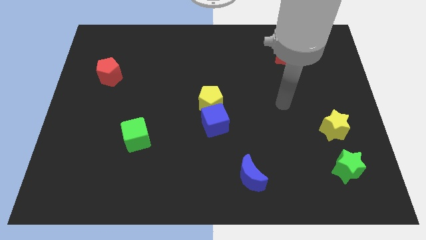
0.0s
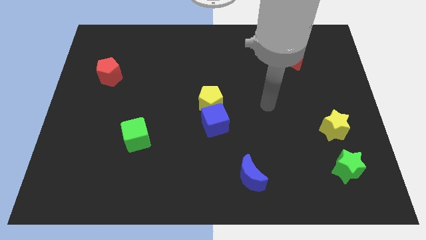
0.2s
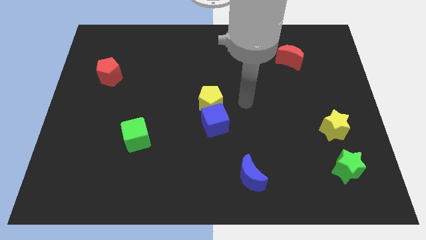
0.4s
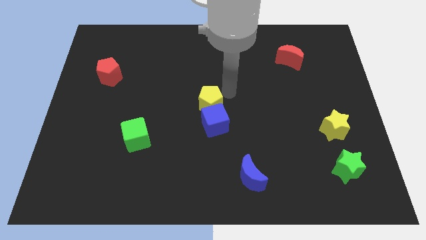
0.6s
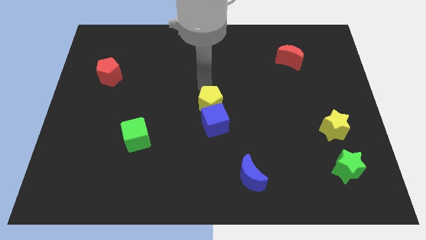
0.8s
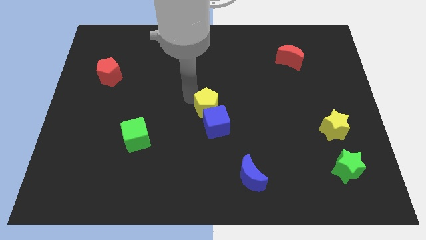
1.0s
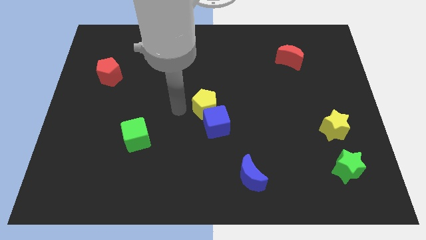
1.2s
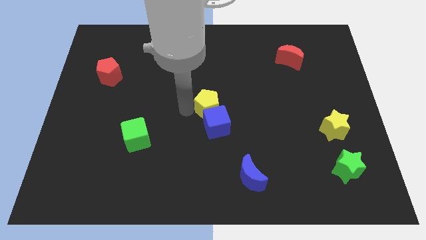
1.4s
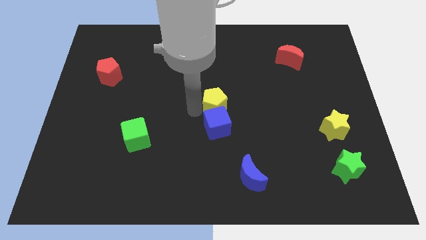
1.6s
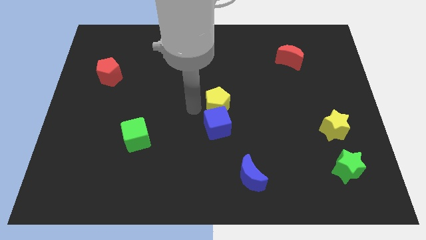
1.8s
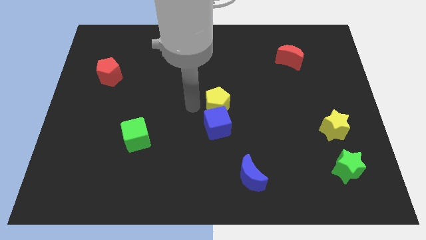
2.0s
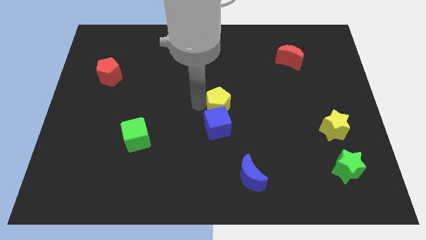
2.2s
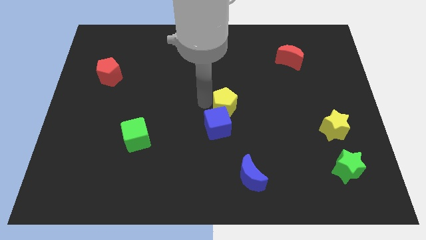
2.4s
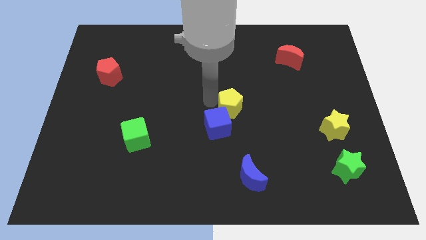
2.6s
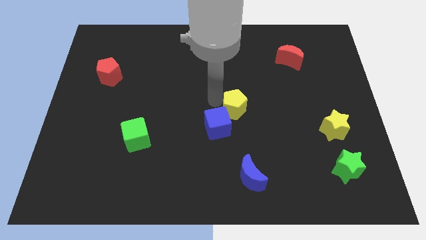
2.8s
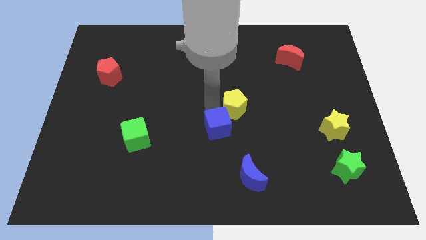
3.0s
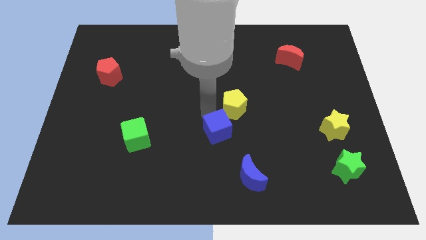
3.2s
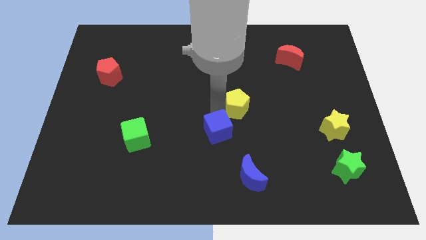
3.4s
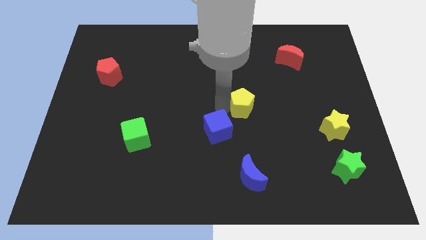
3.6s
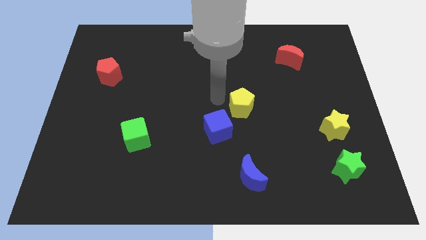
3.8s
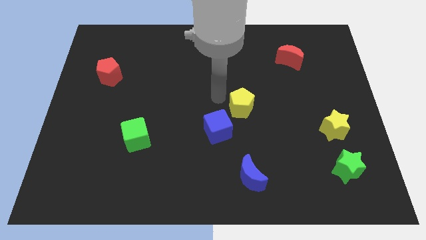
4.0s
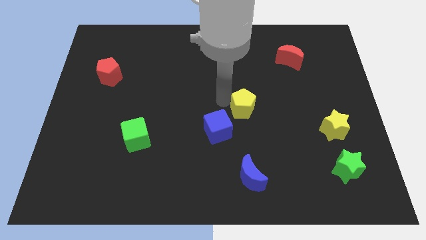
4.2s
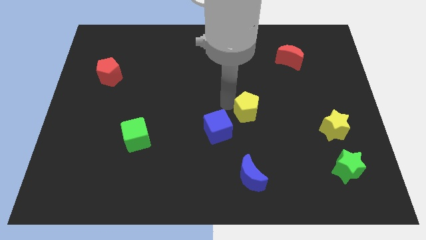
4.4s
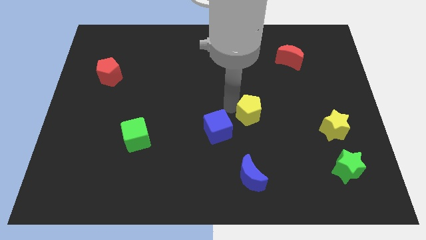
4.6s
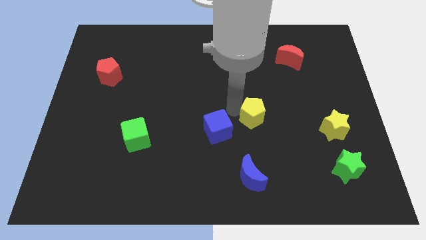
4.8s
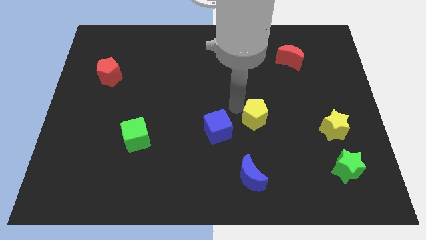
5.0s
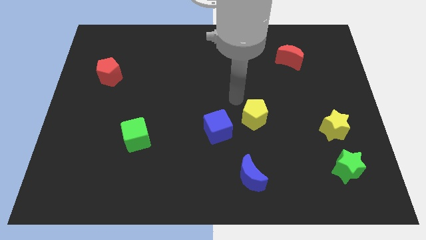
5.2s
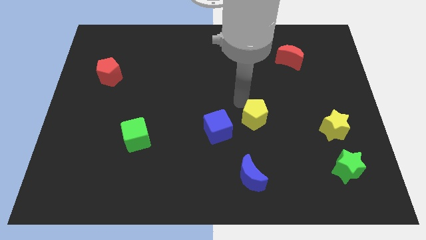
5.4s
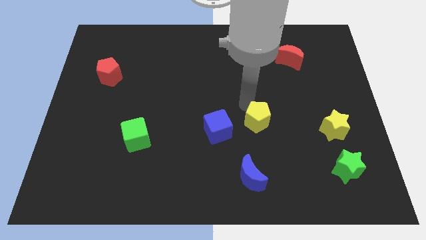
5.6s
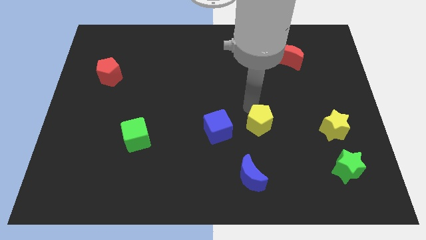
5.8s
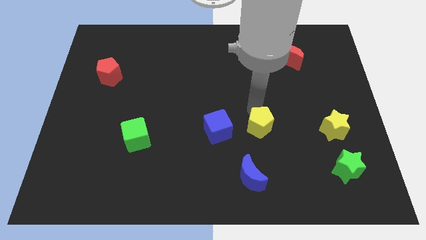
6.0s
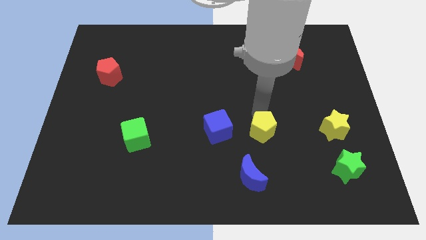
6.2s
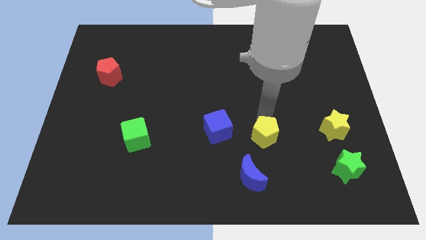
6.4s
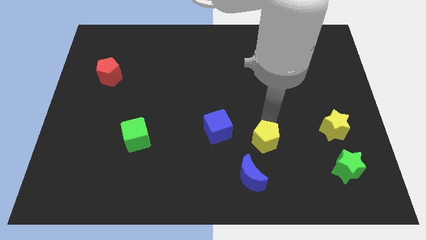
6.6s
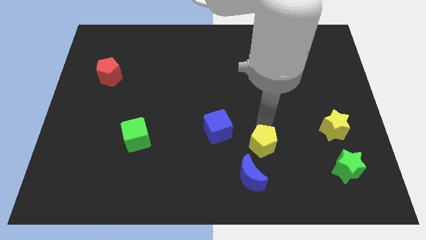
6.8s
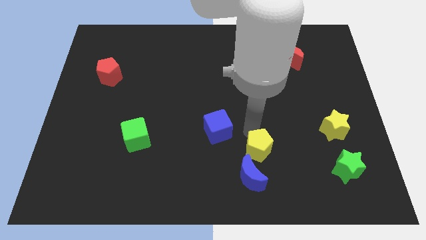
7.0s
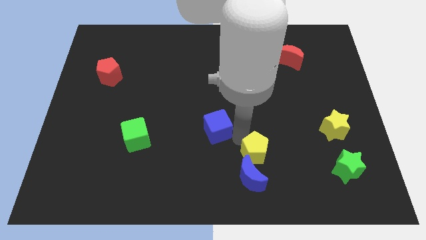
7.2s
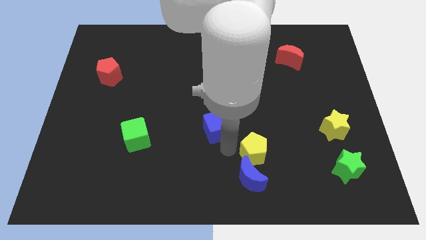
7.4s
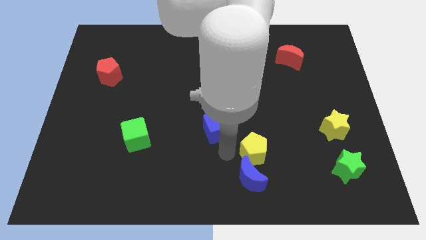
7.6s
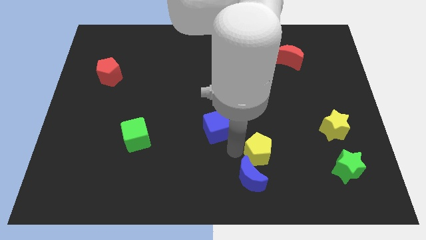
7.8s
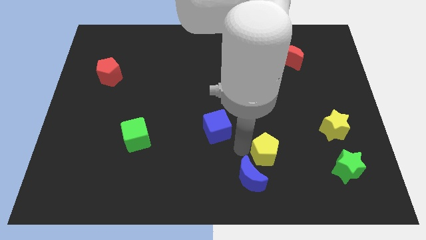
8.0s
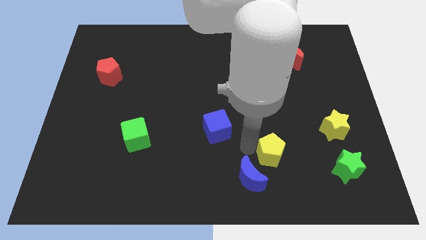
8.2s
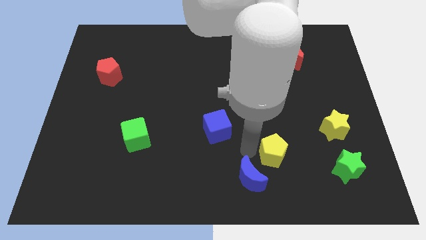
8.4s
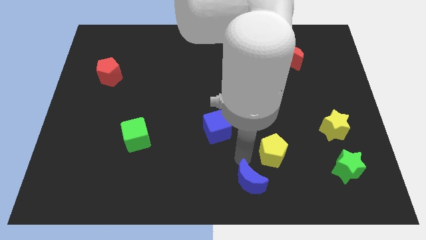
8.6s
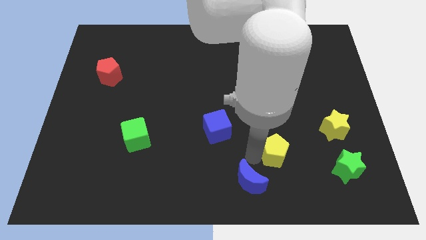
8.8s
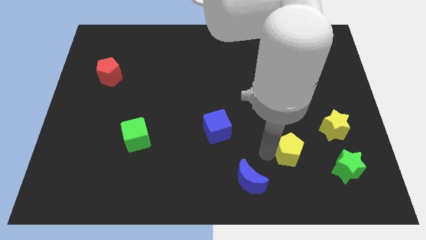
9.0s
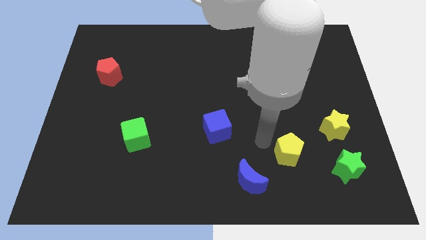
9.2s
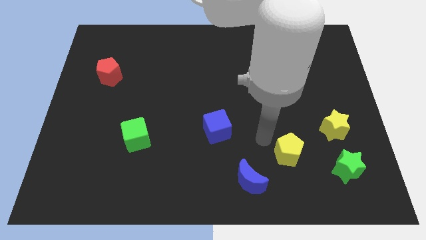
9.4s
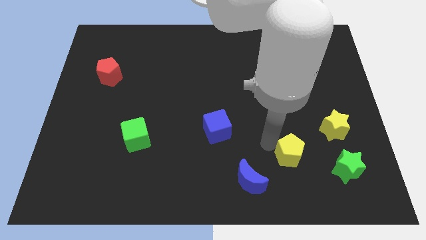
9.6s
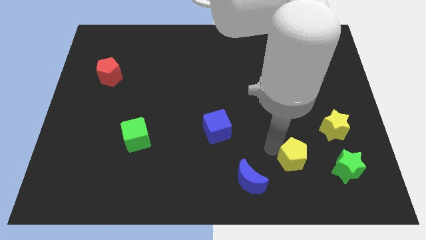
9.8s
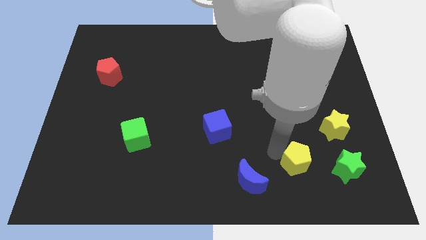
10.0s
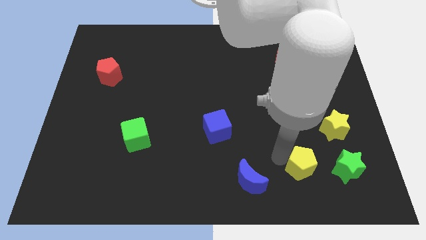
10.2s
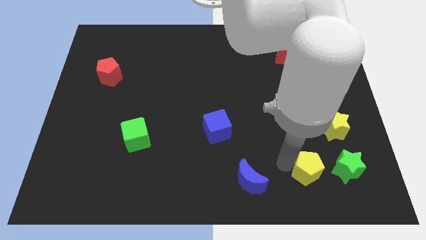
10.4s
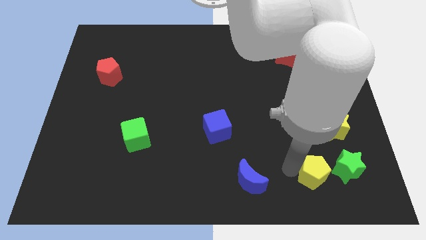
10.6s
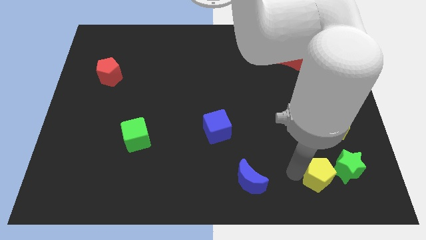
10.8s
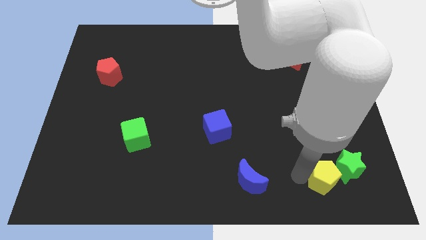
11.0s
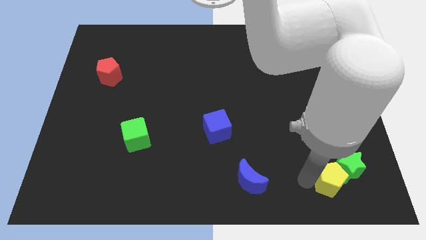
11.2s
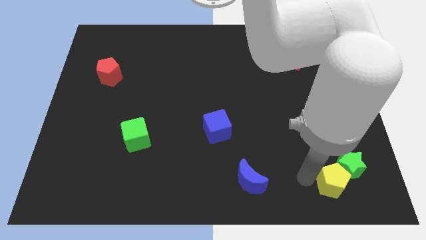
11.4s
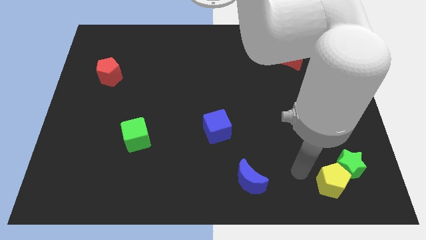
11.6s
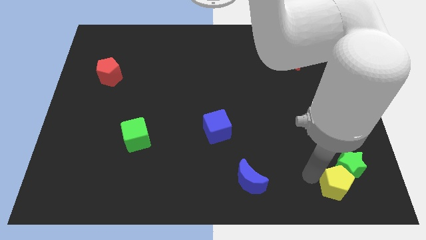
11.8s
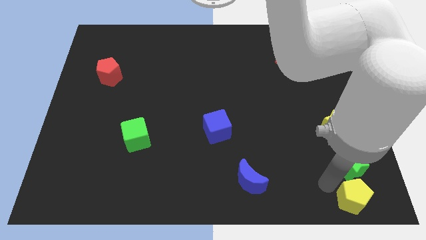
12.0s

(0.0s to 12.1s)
move the yellow pentagon to the bottom right of the board

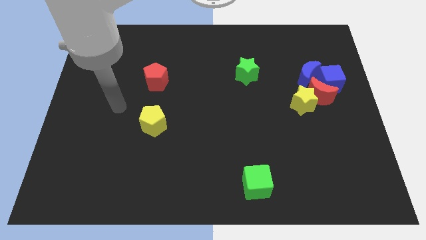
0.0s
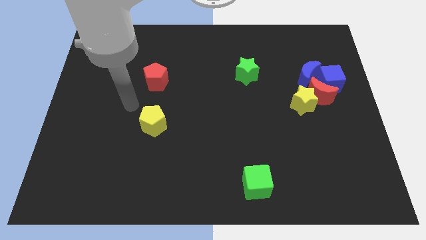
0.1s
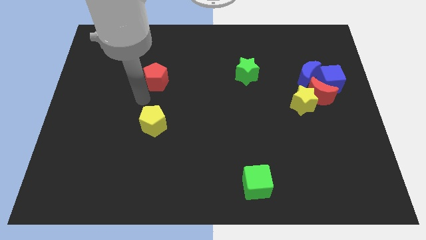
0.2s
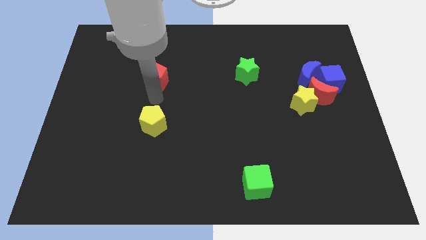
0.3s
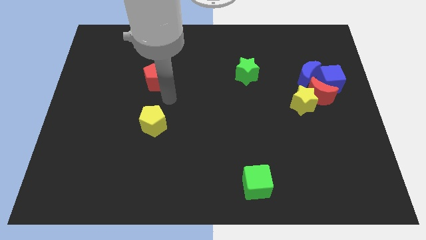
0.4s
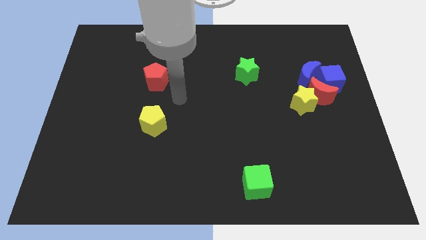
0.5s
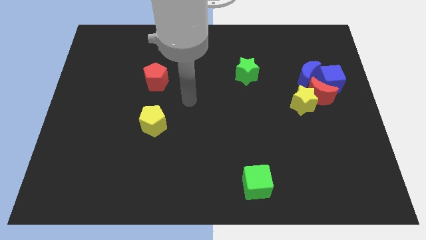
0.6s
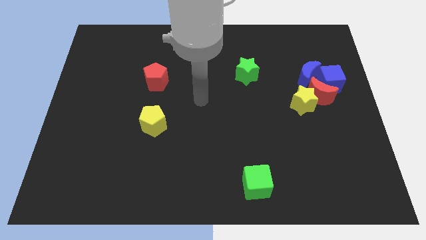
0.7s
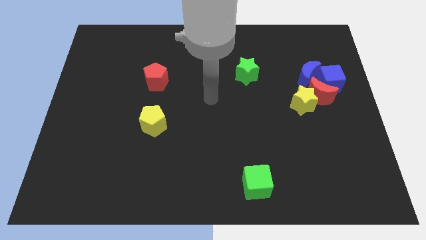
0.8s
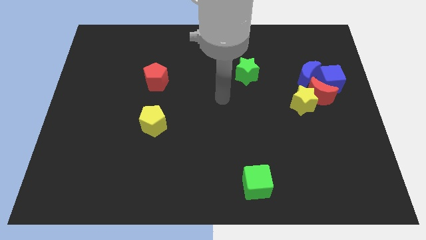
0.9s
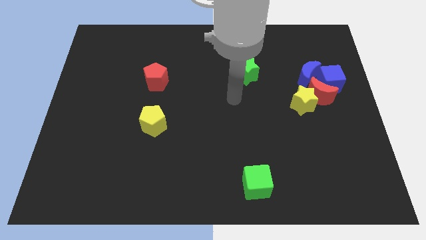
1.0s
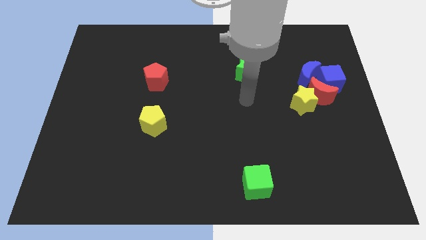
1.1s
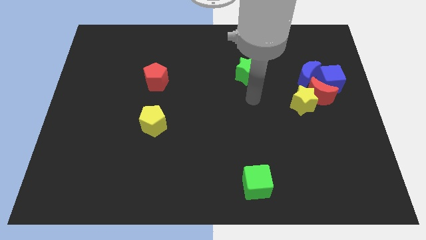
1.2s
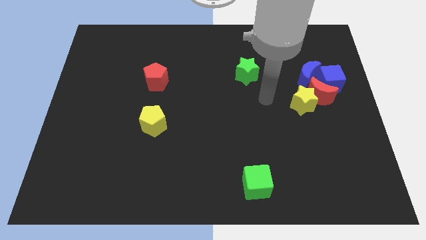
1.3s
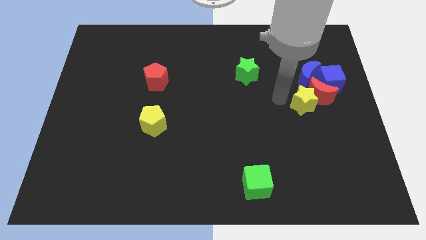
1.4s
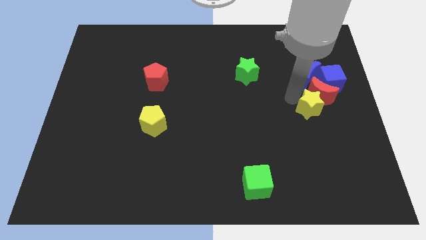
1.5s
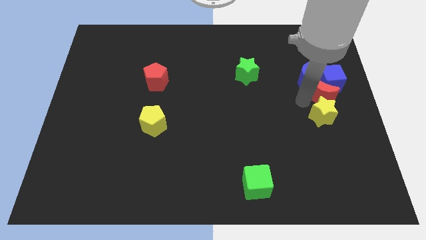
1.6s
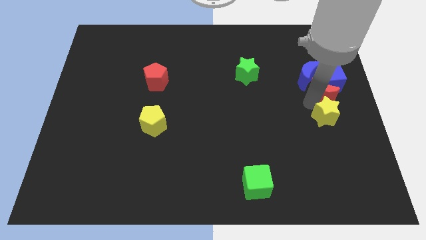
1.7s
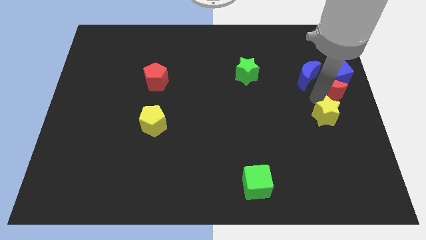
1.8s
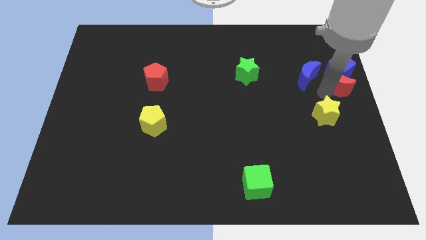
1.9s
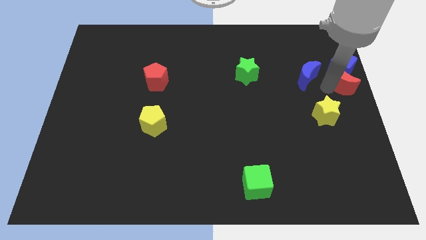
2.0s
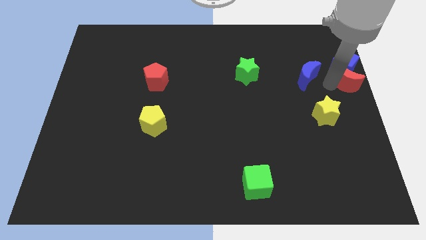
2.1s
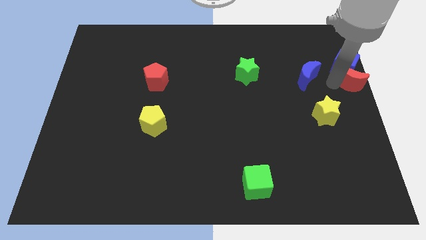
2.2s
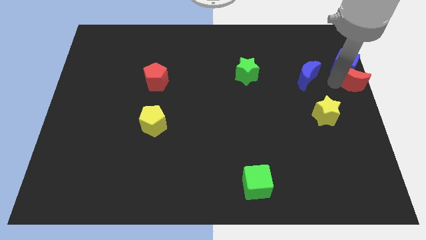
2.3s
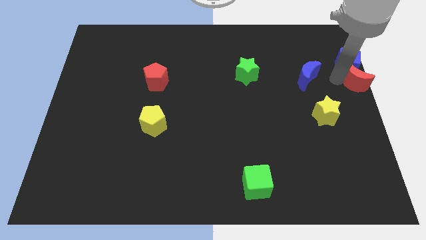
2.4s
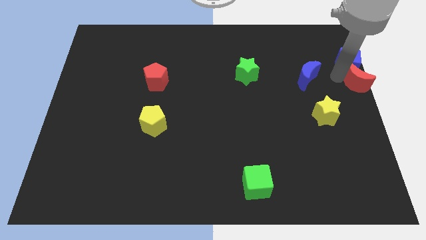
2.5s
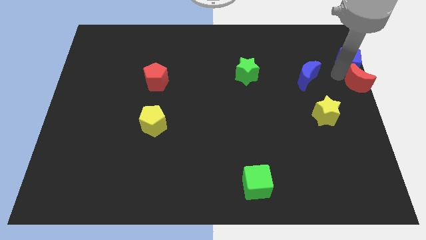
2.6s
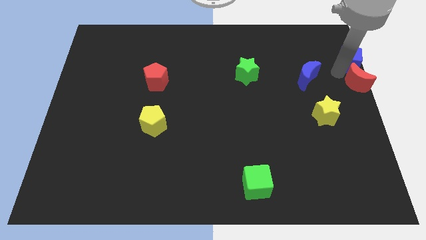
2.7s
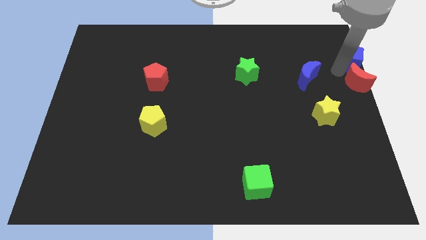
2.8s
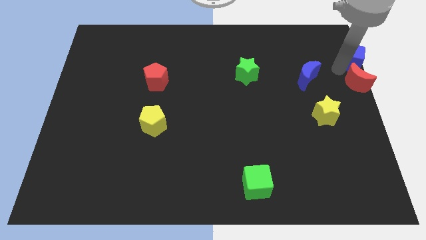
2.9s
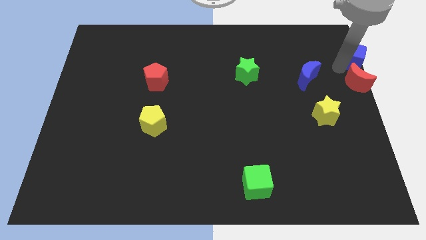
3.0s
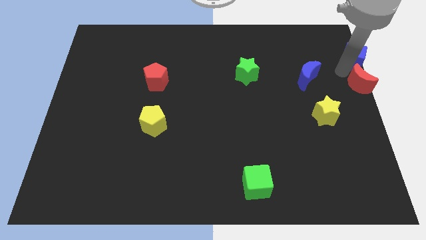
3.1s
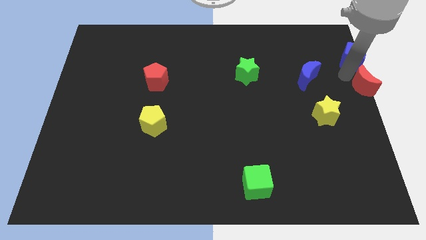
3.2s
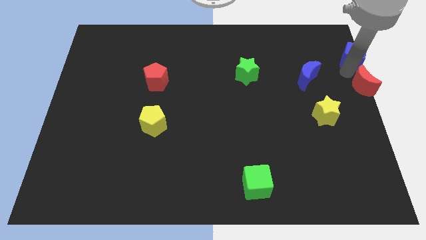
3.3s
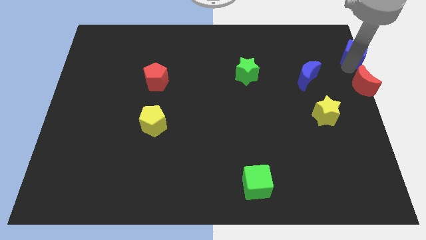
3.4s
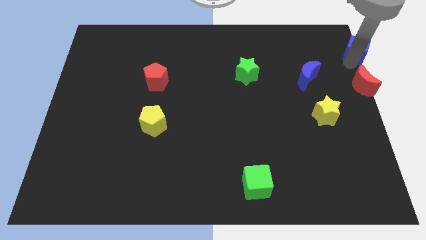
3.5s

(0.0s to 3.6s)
push the blue cube to the top right corner
